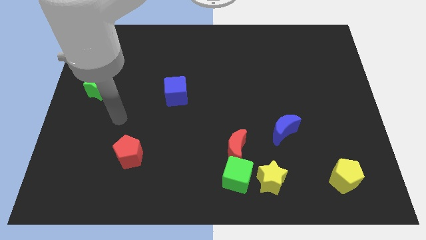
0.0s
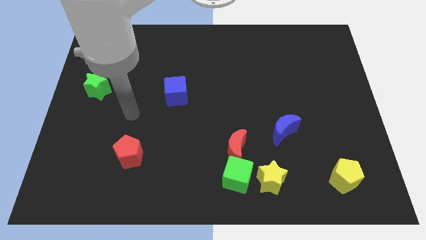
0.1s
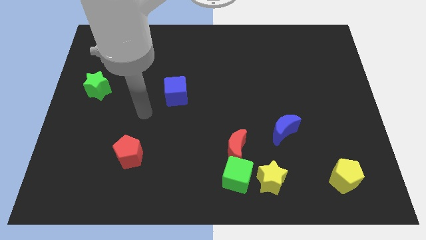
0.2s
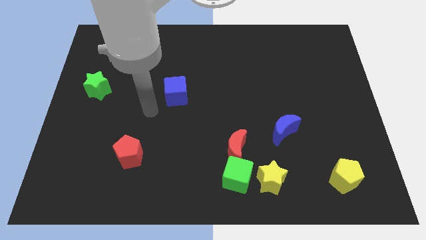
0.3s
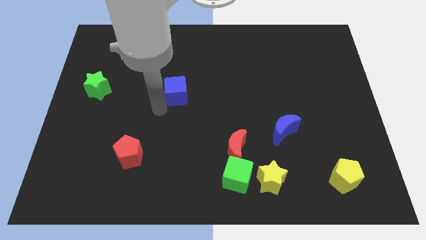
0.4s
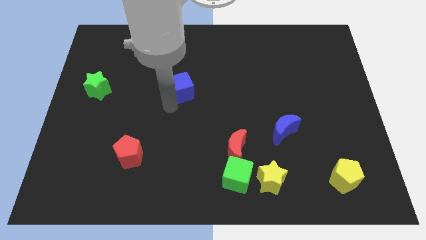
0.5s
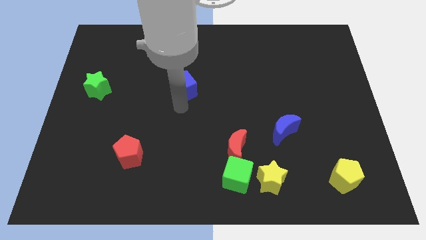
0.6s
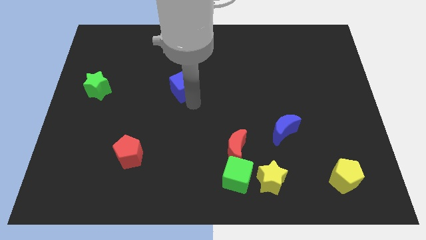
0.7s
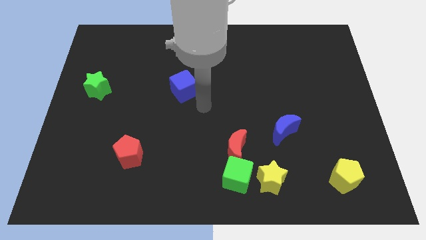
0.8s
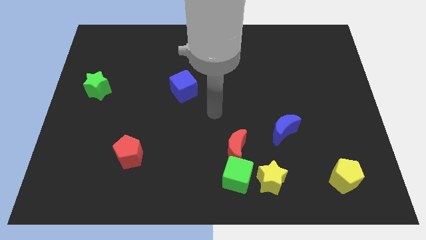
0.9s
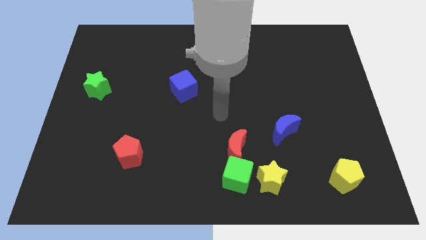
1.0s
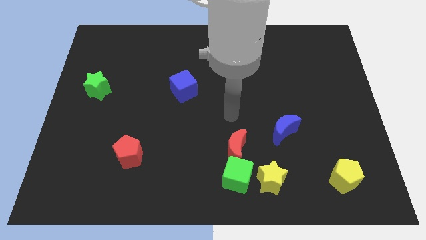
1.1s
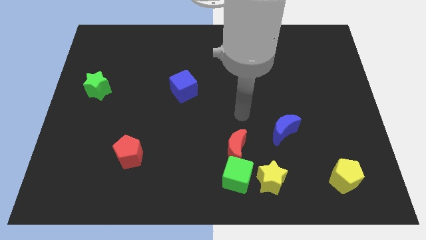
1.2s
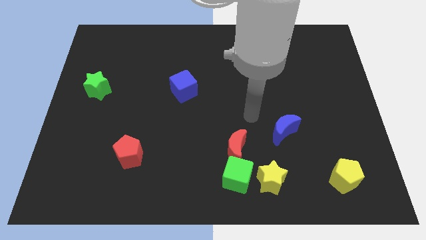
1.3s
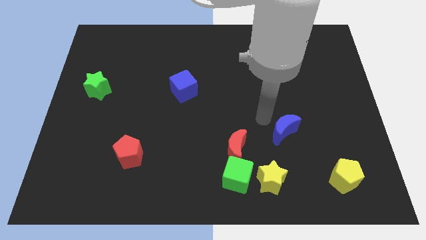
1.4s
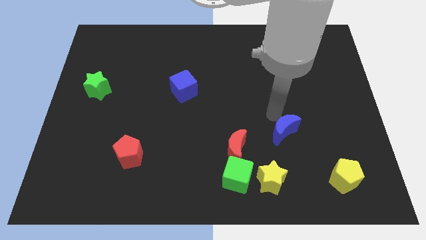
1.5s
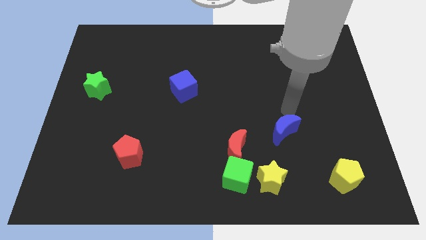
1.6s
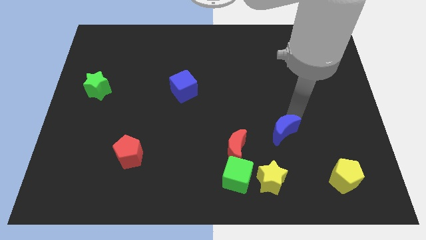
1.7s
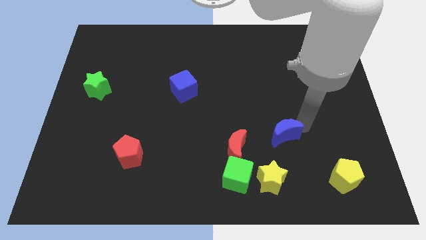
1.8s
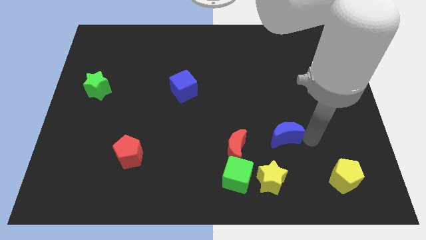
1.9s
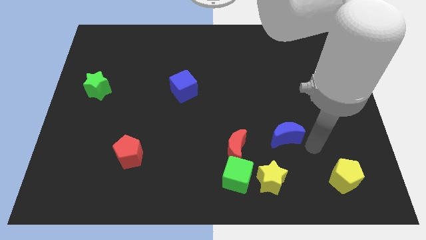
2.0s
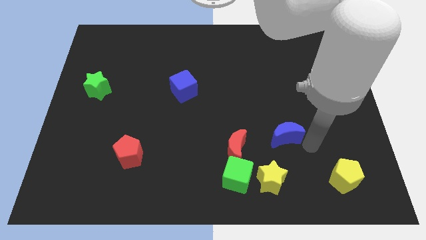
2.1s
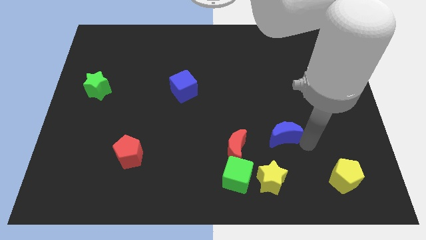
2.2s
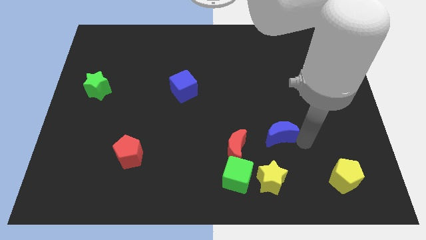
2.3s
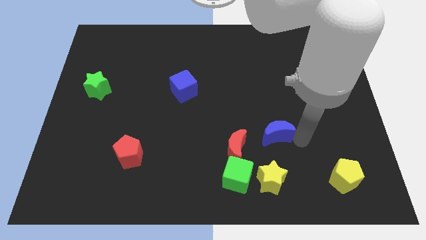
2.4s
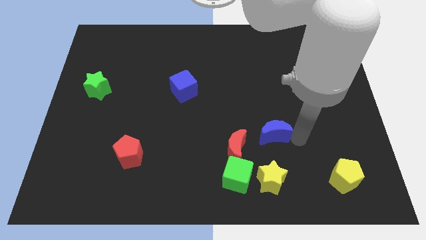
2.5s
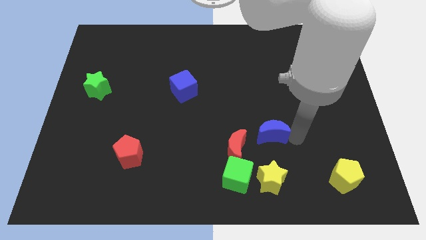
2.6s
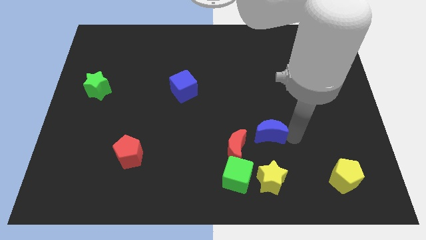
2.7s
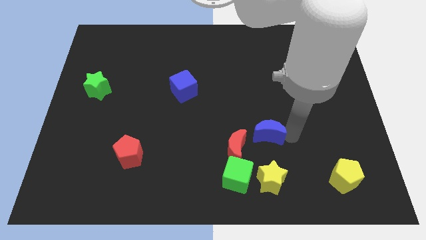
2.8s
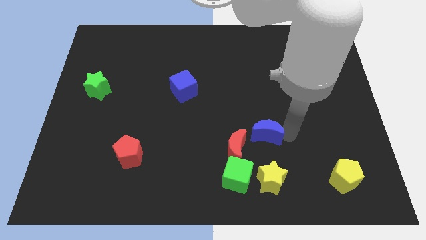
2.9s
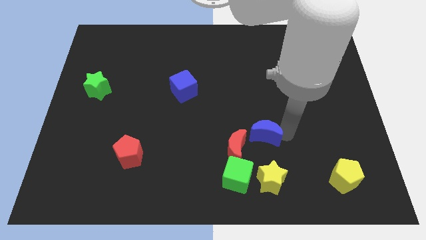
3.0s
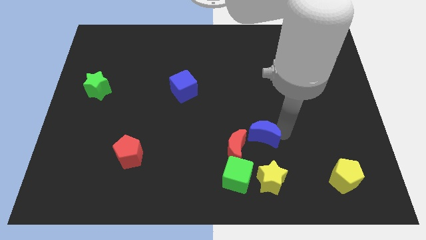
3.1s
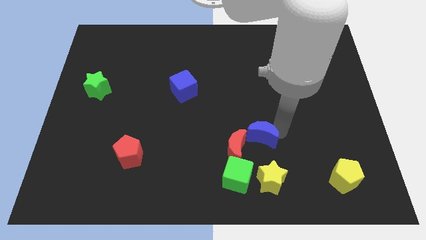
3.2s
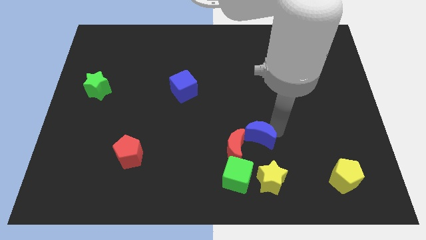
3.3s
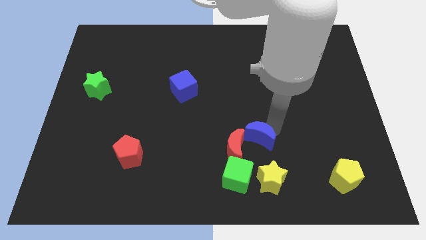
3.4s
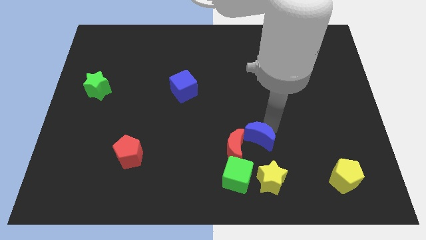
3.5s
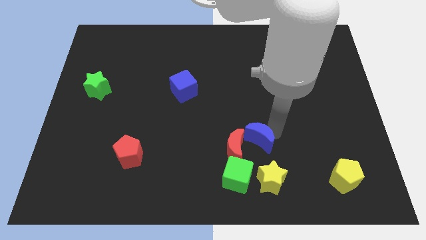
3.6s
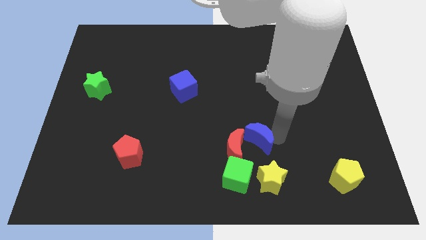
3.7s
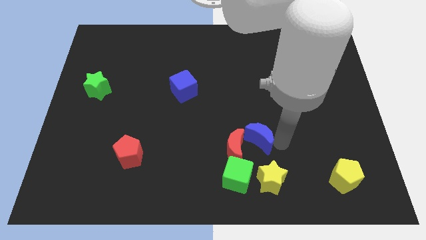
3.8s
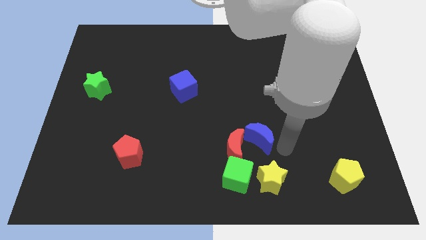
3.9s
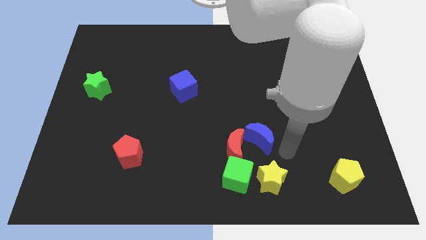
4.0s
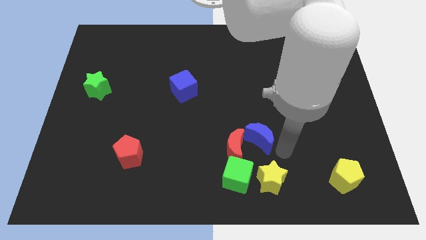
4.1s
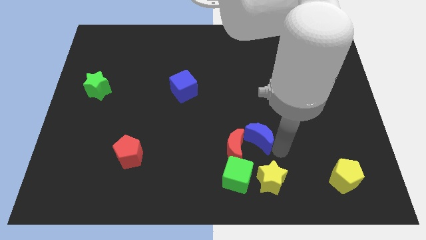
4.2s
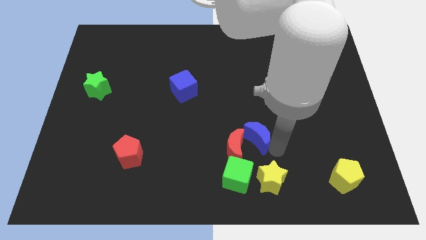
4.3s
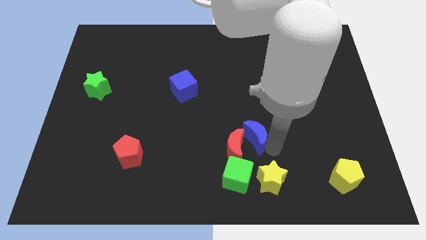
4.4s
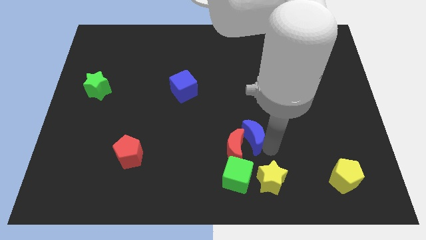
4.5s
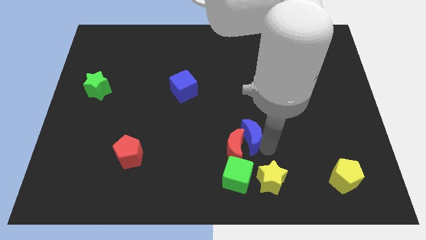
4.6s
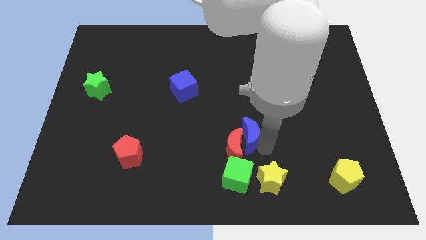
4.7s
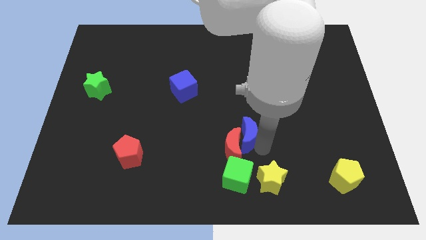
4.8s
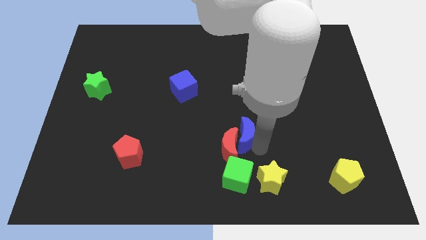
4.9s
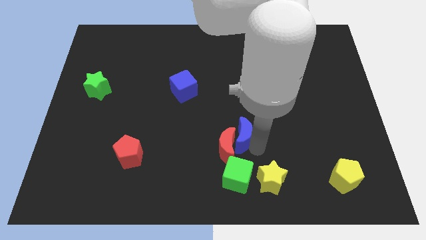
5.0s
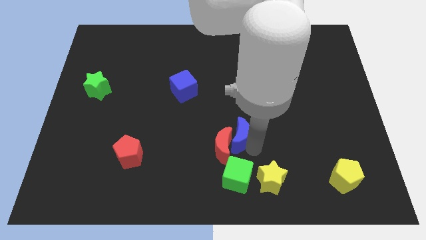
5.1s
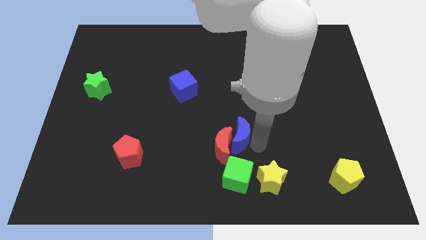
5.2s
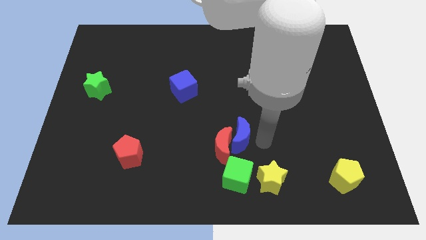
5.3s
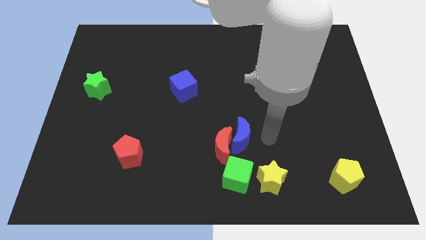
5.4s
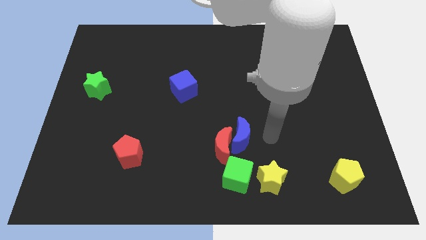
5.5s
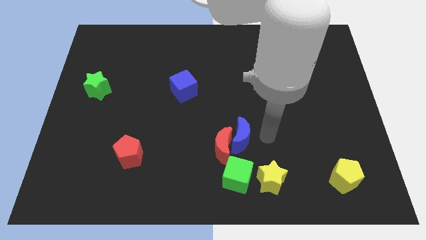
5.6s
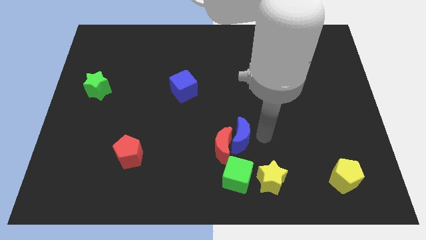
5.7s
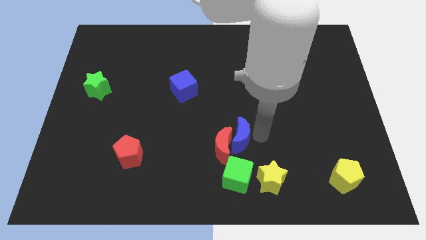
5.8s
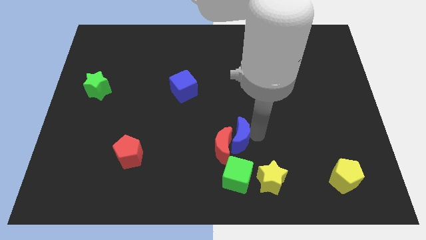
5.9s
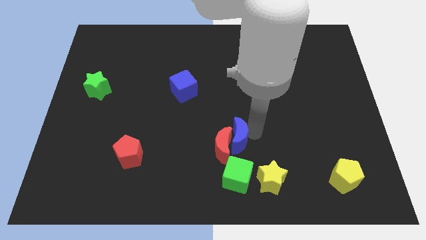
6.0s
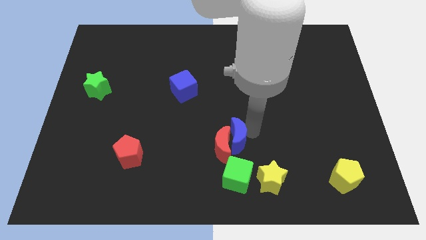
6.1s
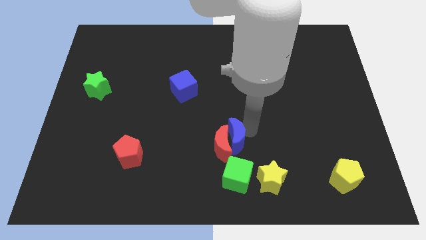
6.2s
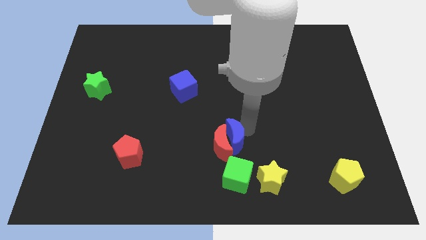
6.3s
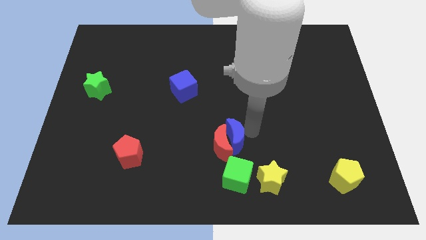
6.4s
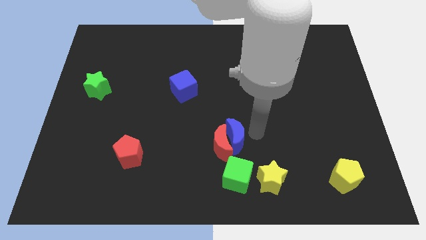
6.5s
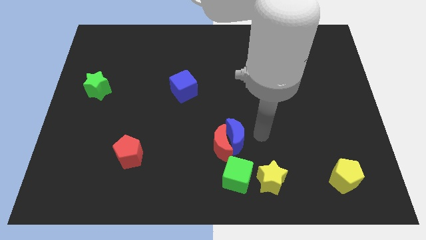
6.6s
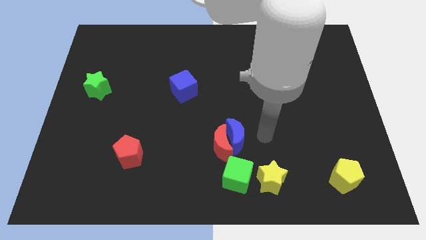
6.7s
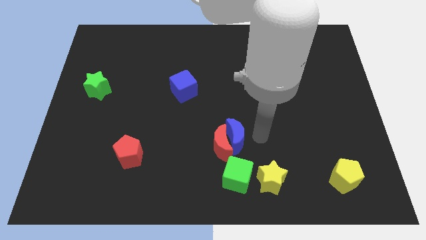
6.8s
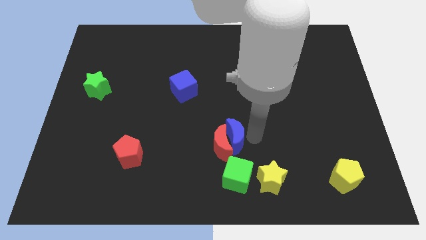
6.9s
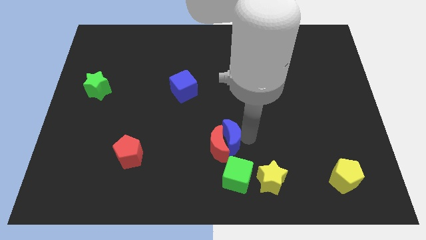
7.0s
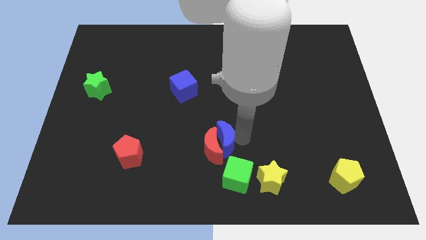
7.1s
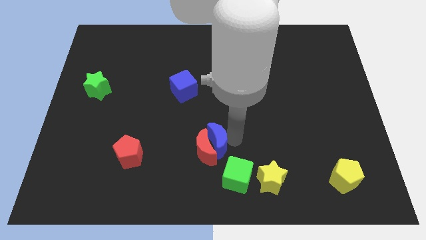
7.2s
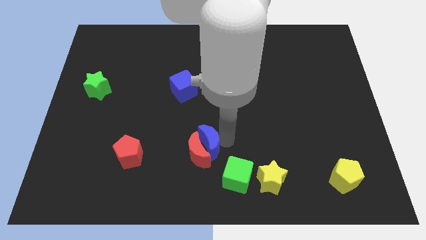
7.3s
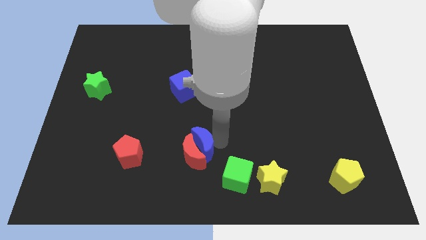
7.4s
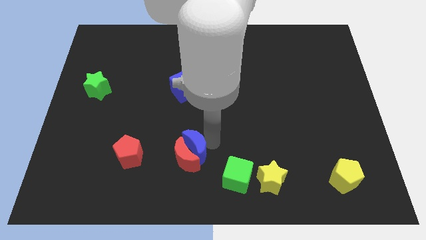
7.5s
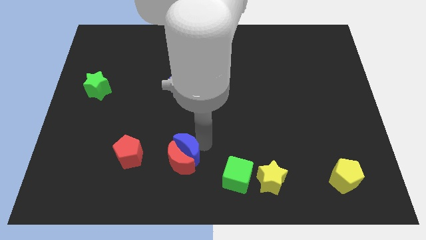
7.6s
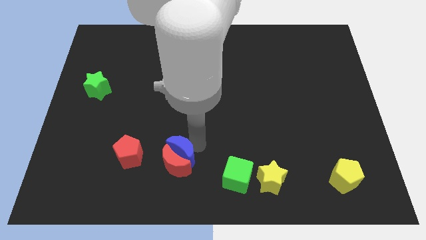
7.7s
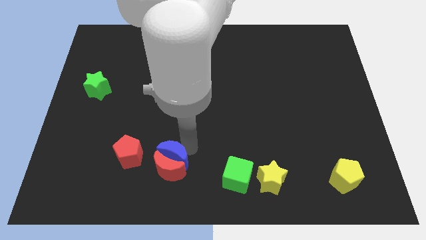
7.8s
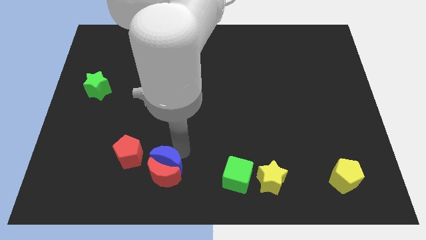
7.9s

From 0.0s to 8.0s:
push the blue moon diagonally down and to the right of the red pentagon
